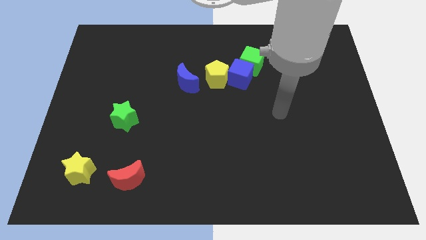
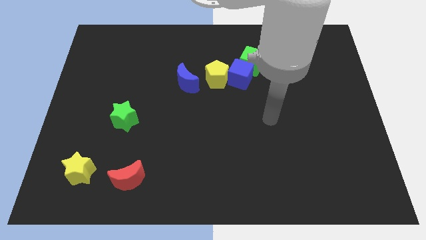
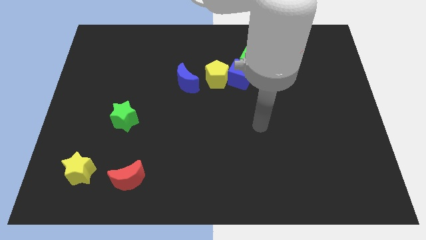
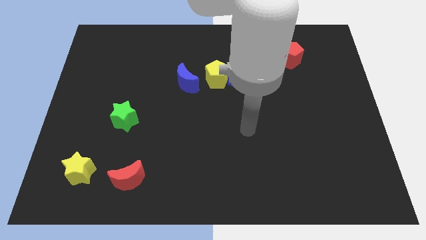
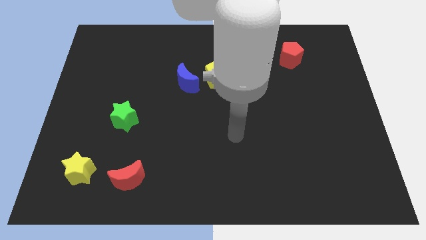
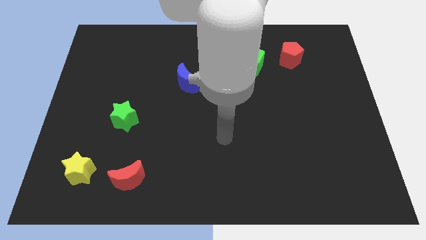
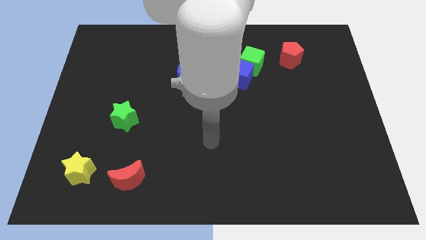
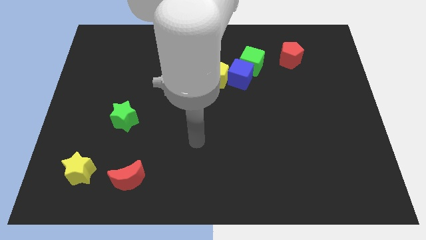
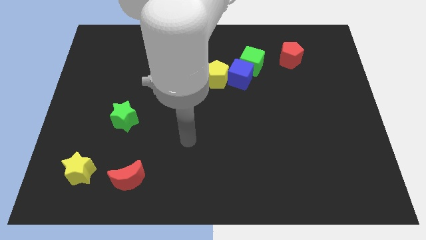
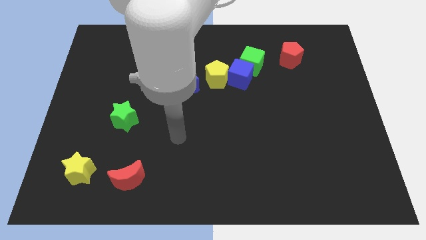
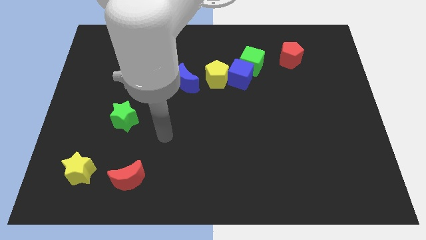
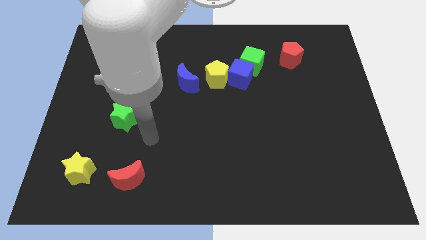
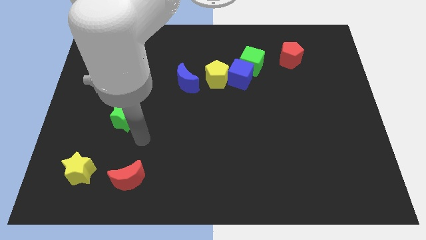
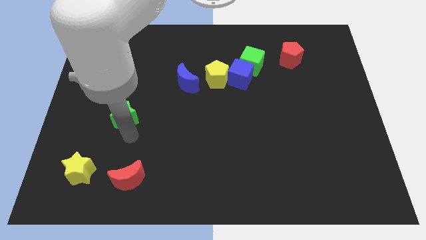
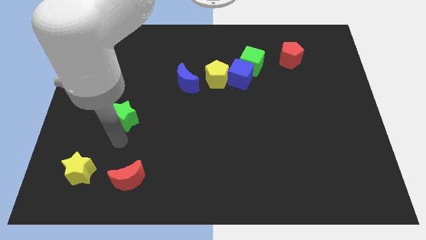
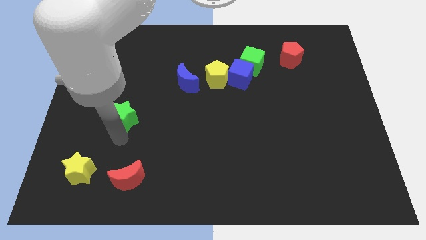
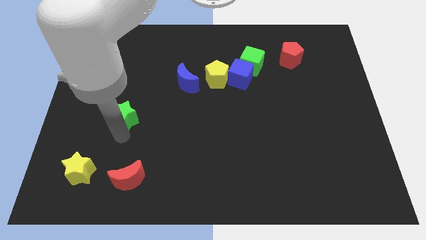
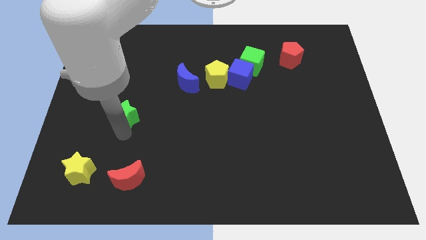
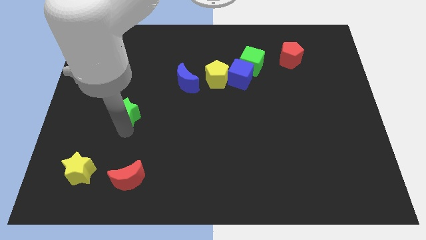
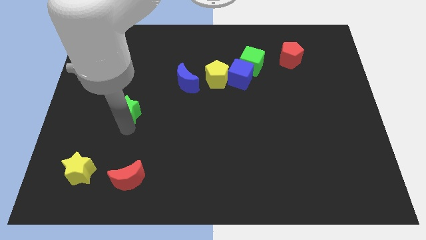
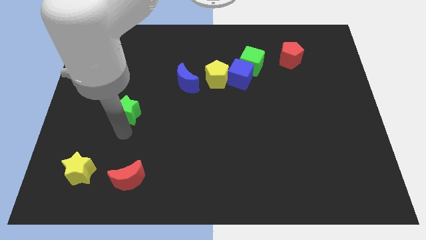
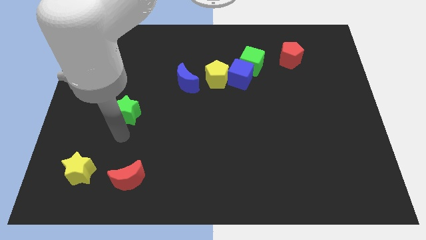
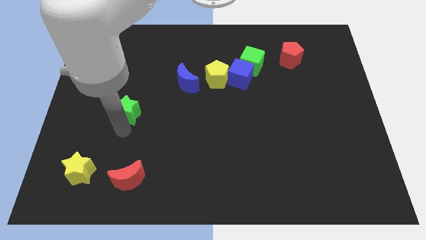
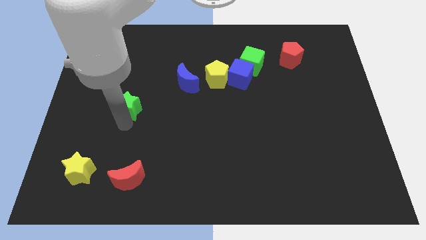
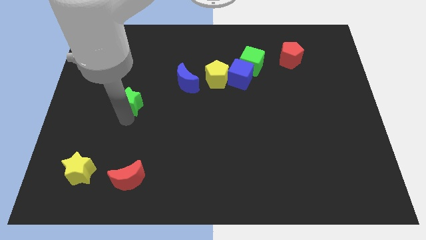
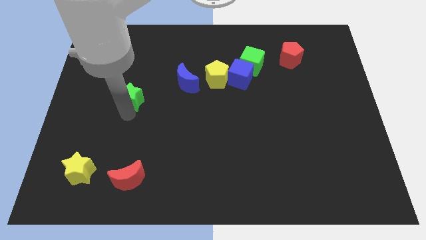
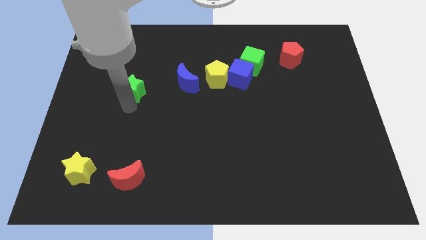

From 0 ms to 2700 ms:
push the green star up somewhat

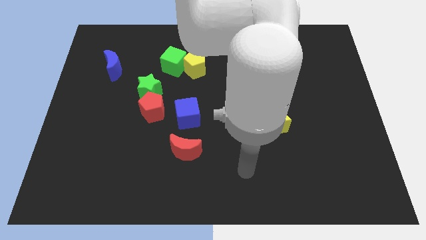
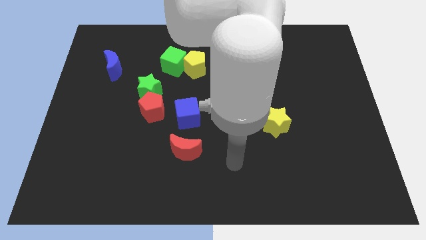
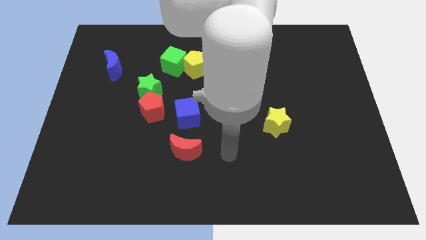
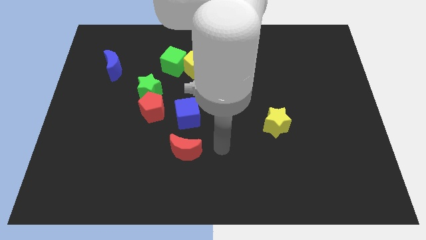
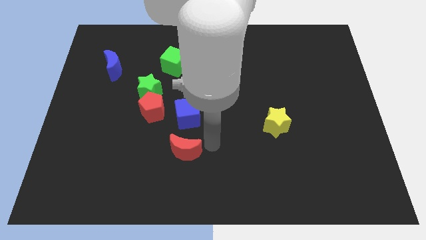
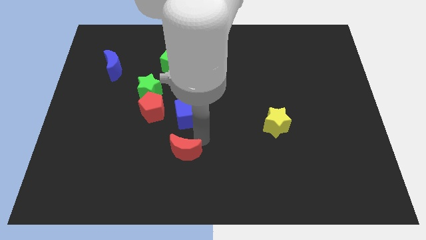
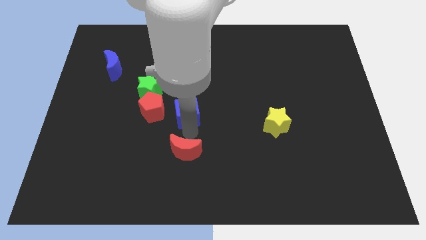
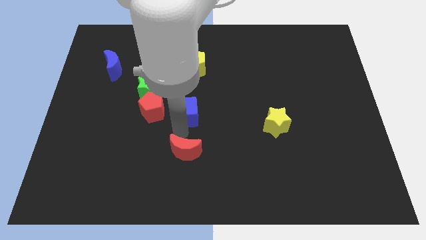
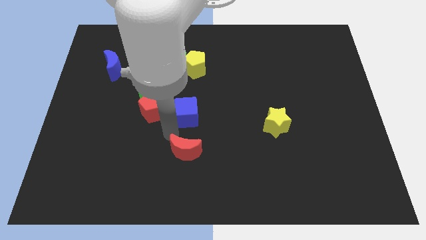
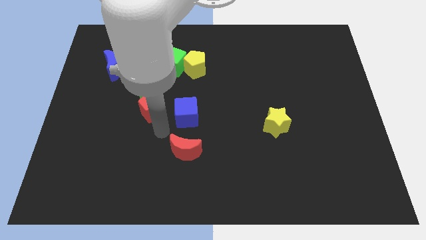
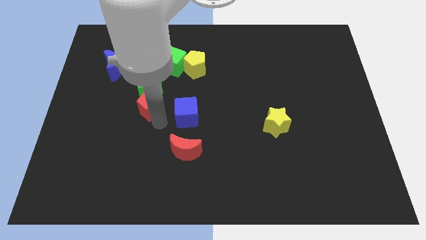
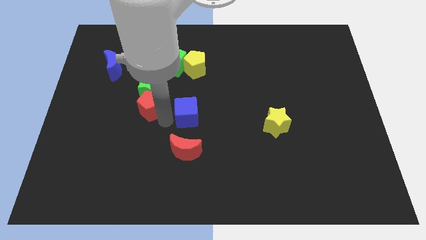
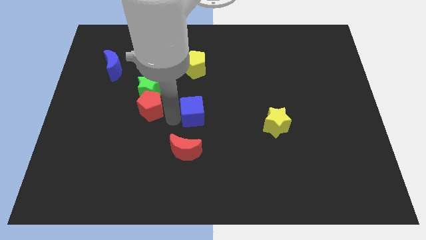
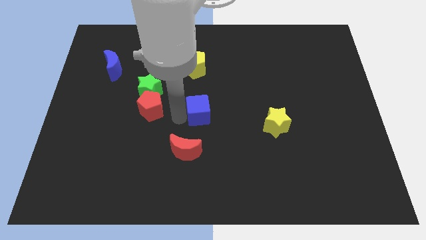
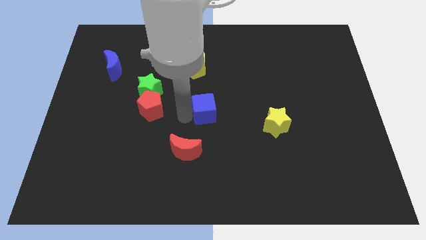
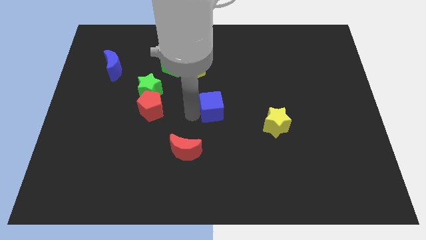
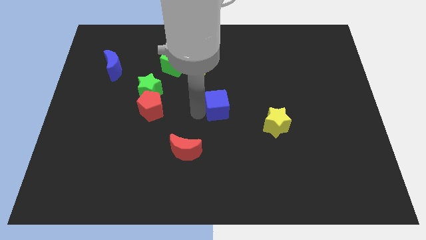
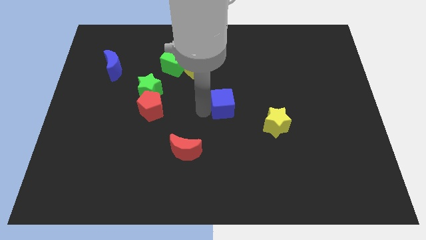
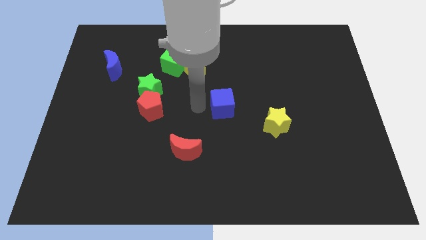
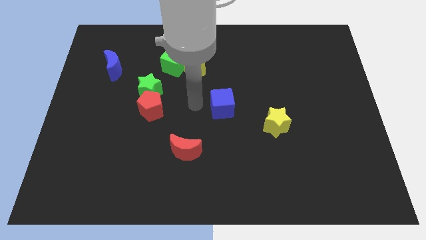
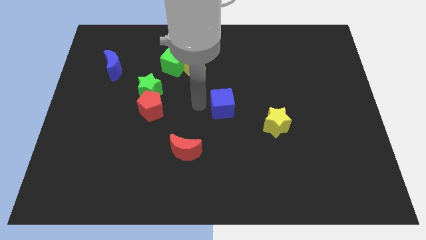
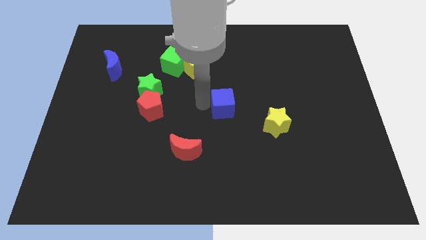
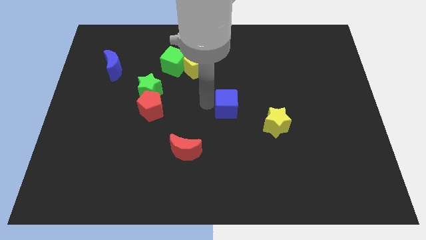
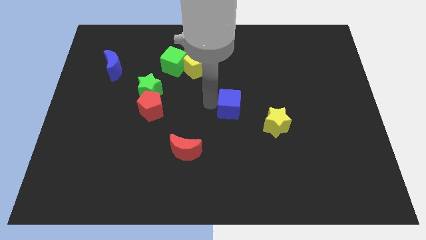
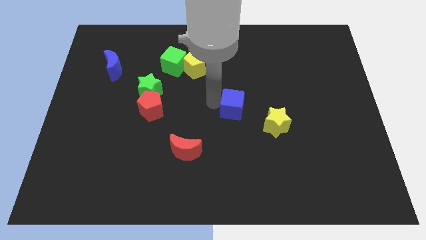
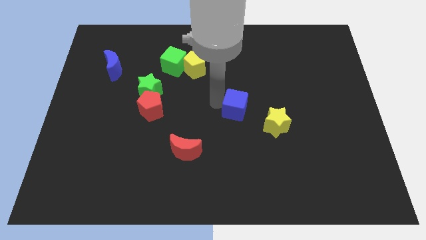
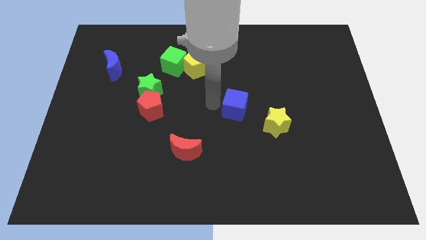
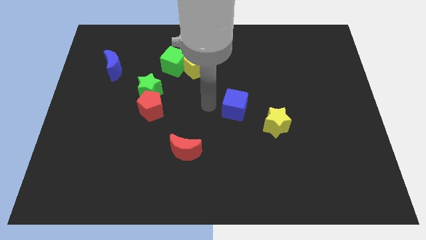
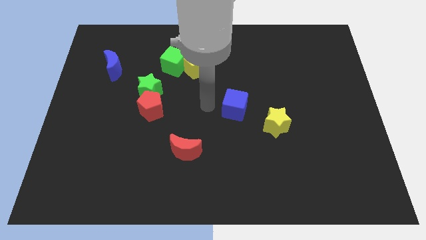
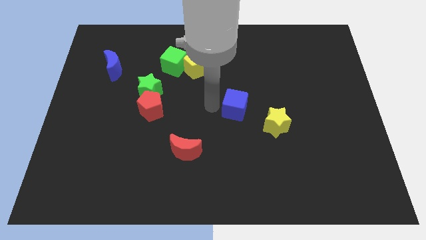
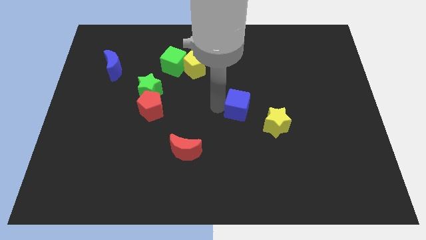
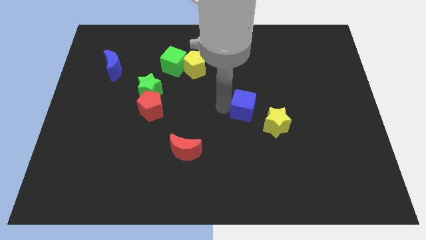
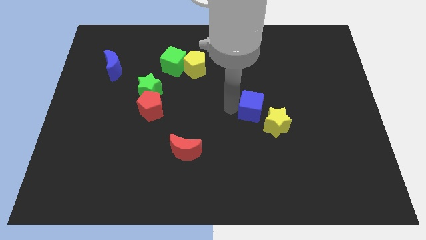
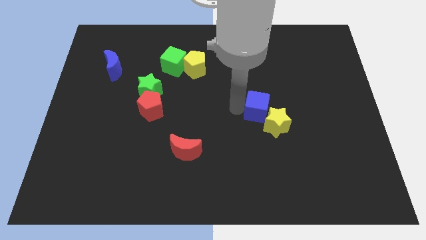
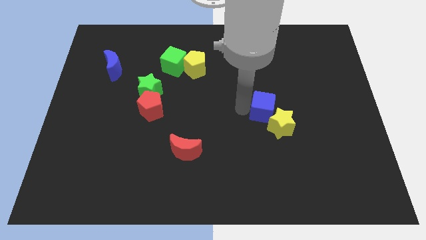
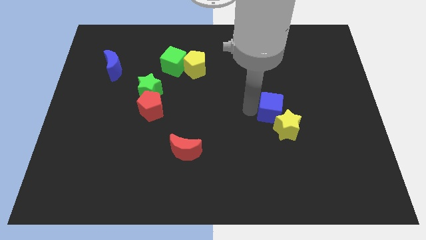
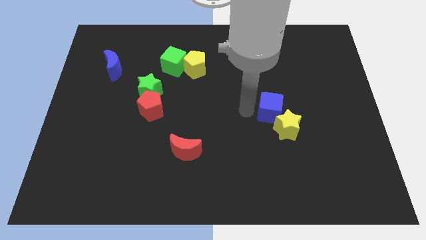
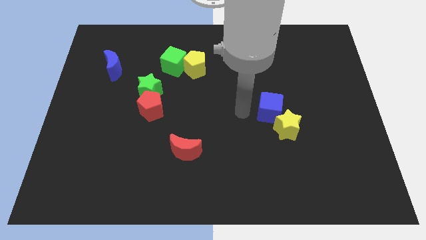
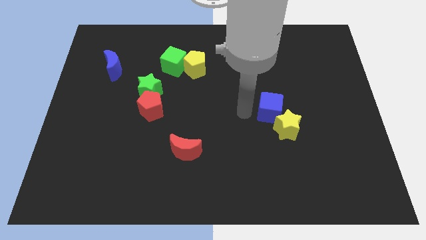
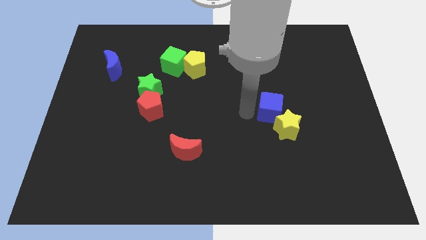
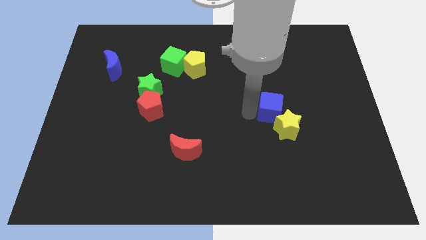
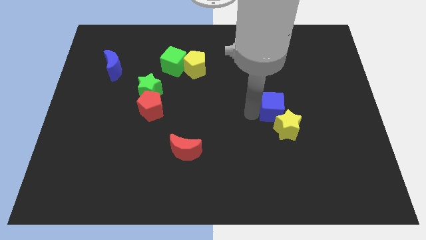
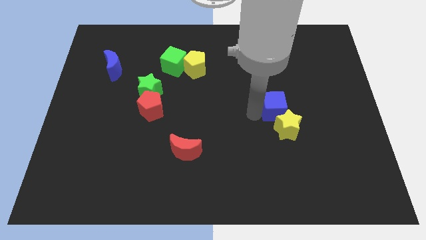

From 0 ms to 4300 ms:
slide the blue cube right

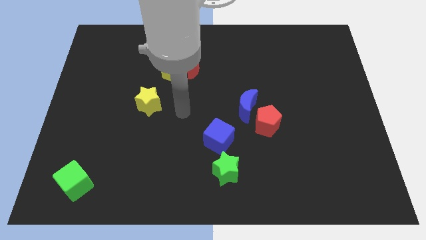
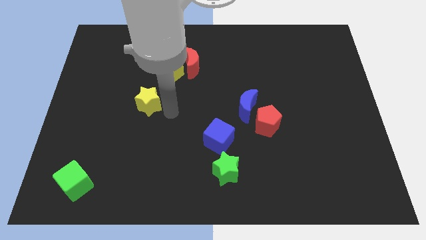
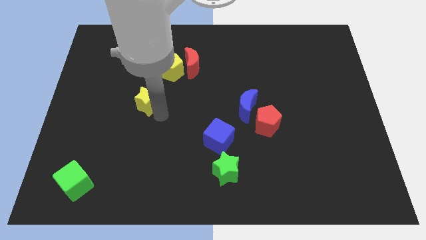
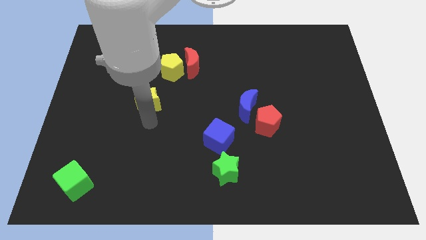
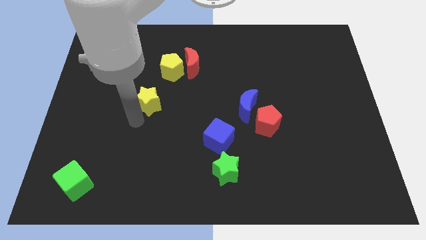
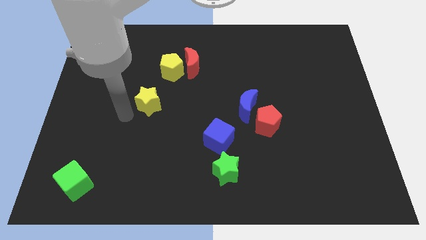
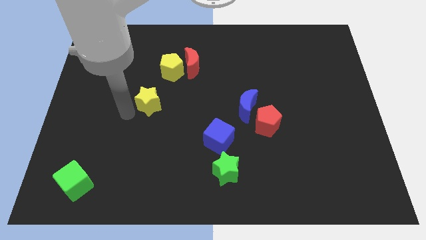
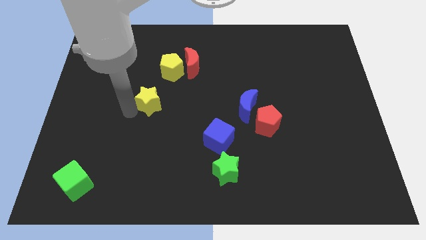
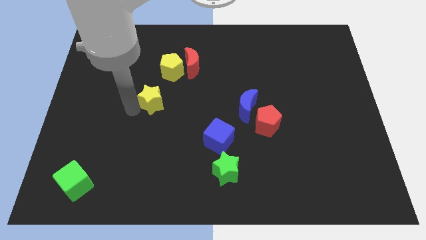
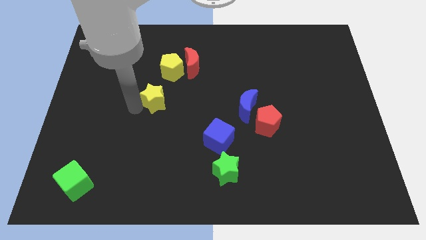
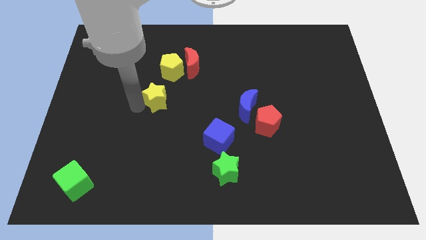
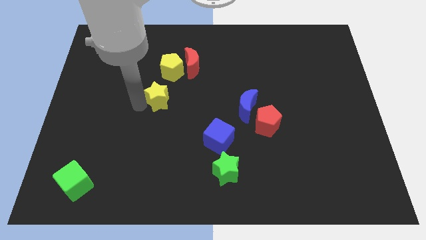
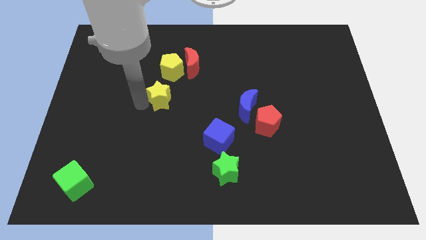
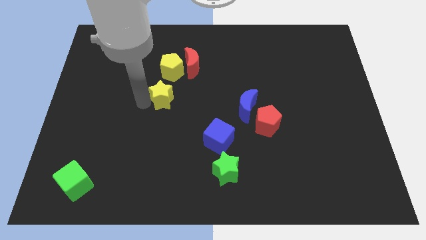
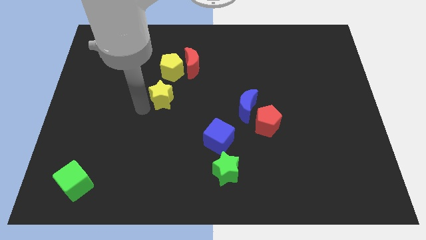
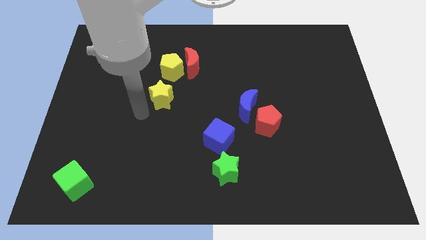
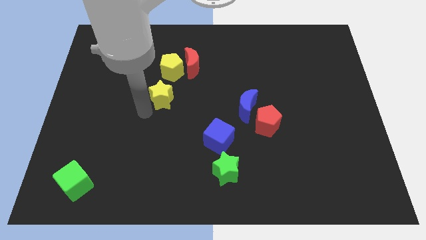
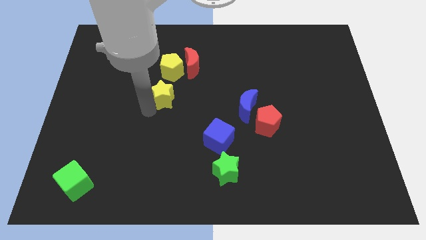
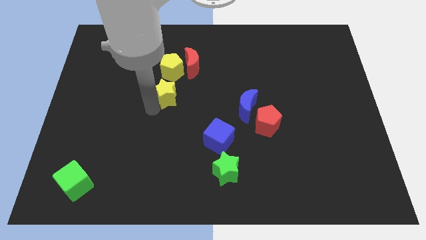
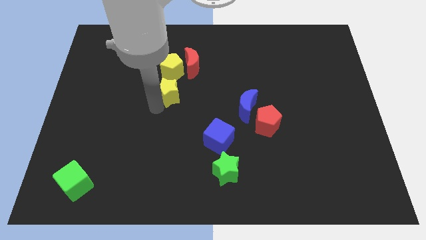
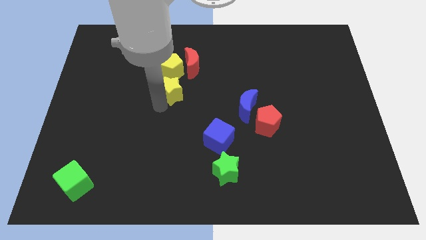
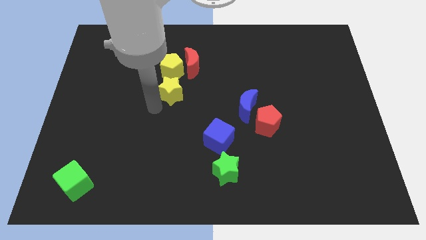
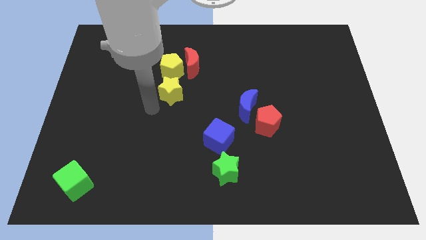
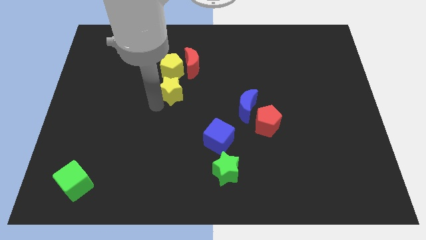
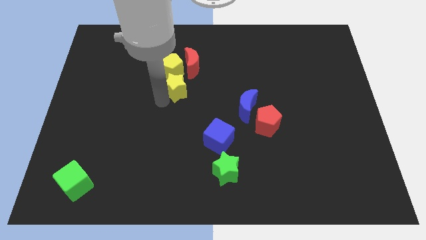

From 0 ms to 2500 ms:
slightly slide the yellow star upwards and to the right
